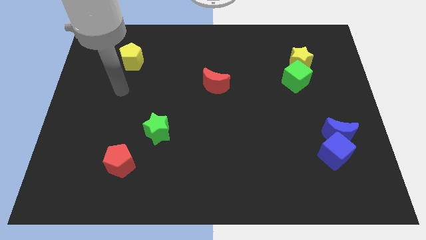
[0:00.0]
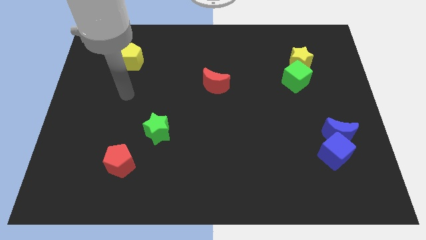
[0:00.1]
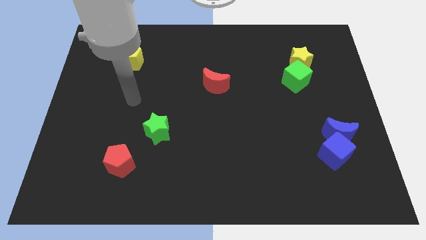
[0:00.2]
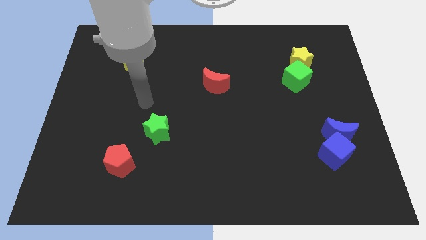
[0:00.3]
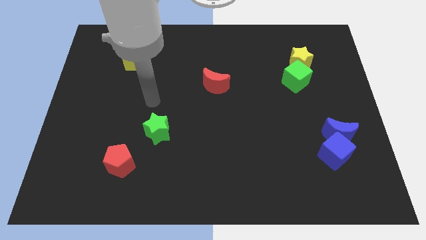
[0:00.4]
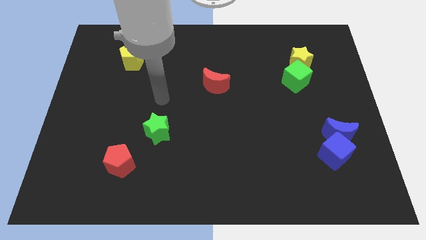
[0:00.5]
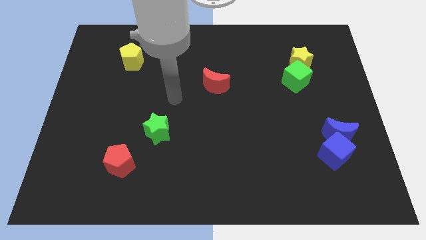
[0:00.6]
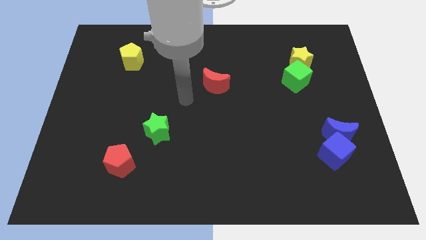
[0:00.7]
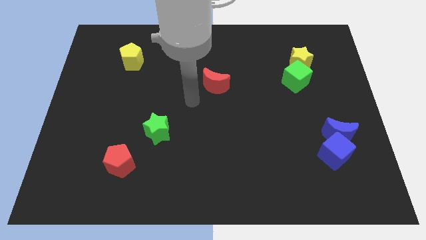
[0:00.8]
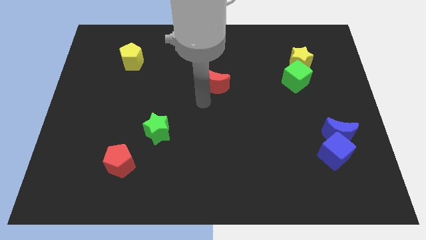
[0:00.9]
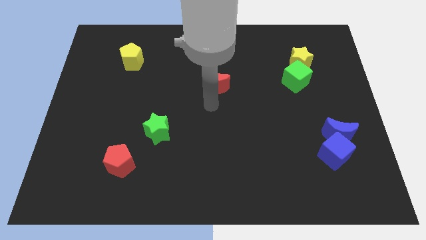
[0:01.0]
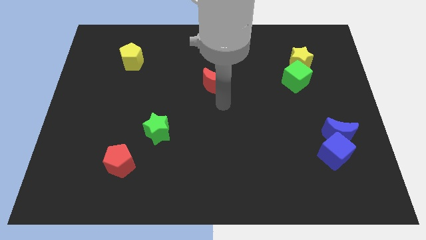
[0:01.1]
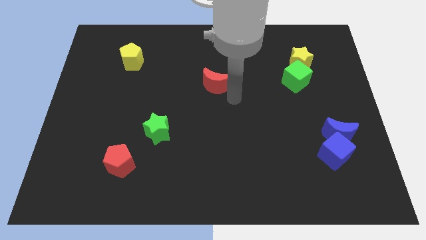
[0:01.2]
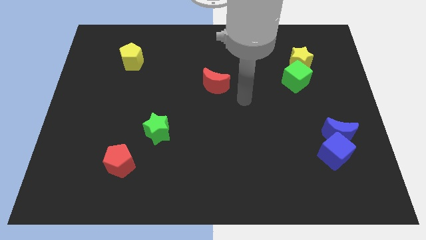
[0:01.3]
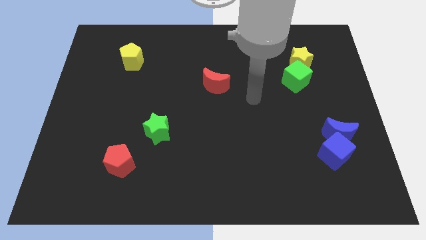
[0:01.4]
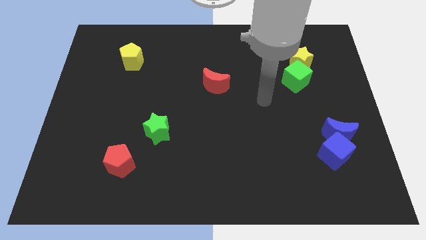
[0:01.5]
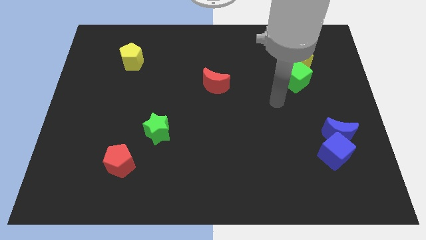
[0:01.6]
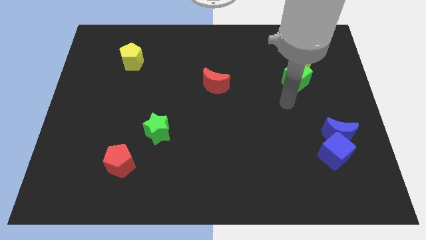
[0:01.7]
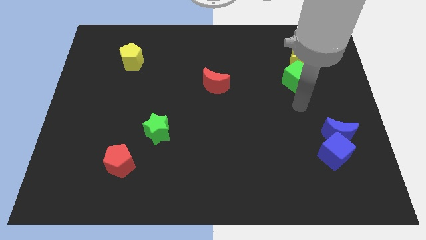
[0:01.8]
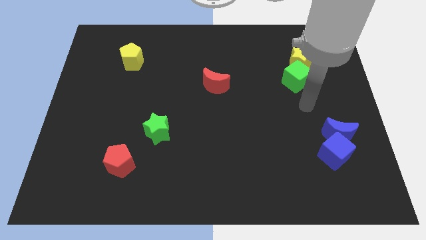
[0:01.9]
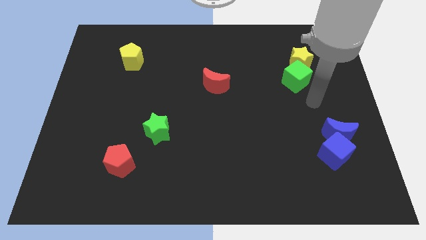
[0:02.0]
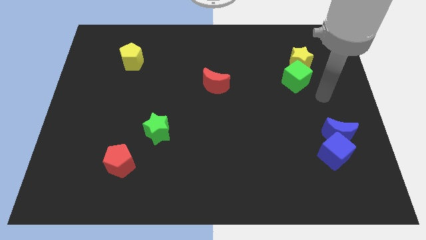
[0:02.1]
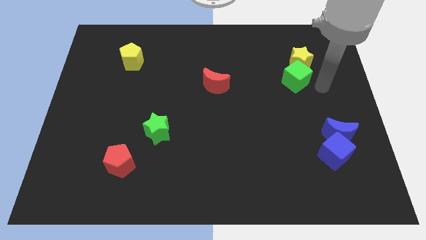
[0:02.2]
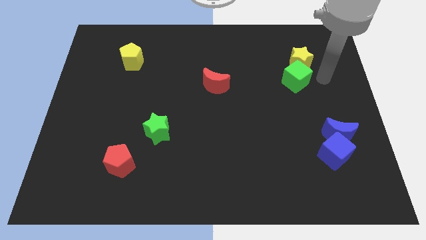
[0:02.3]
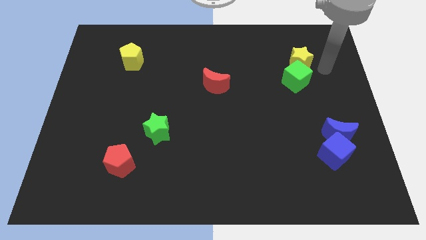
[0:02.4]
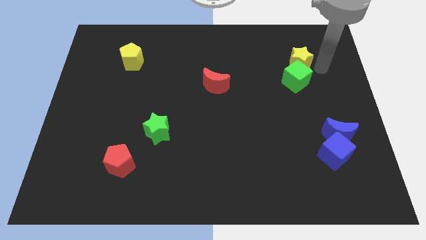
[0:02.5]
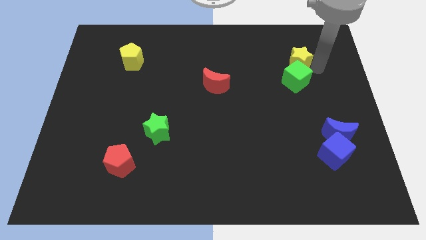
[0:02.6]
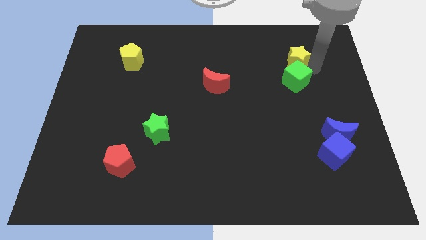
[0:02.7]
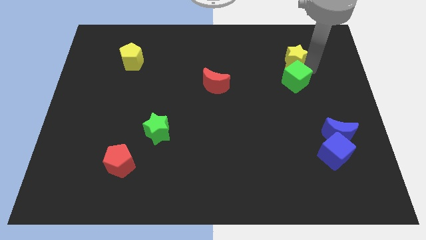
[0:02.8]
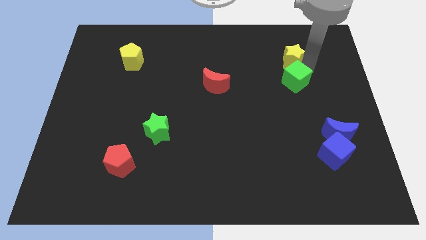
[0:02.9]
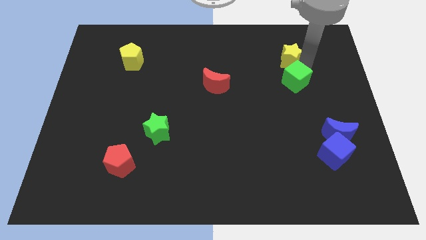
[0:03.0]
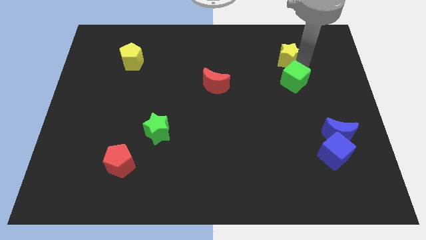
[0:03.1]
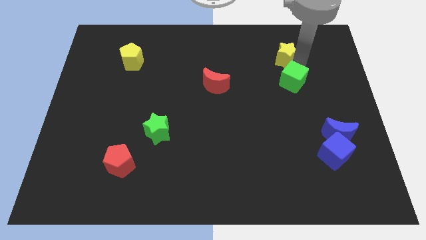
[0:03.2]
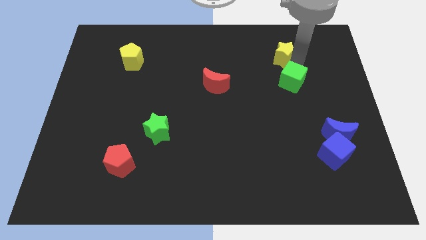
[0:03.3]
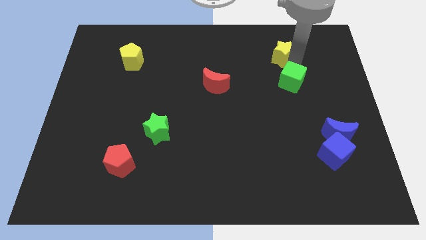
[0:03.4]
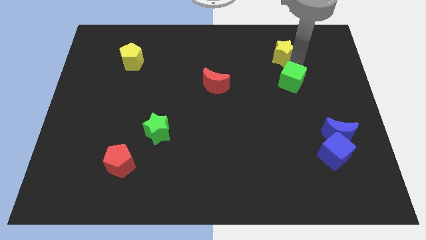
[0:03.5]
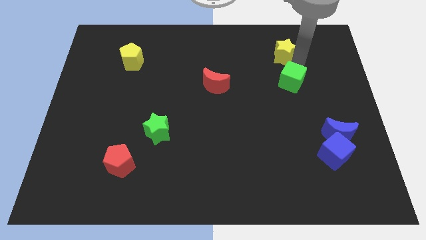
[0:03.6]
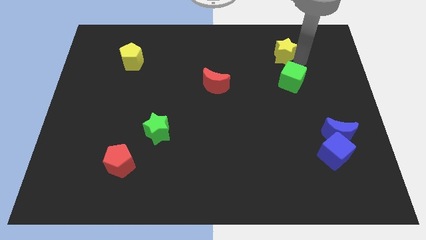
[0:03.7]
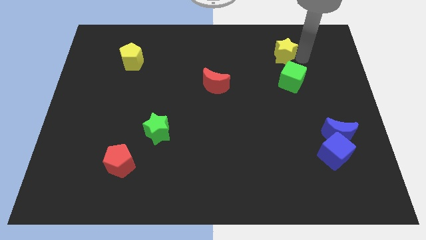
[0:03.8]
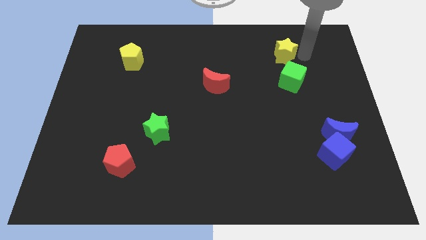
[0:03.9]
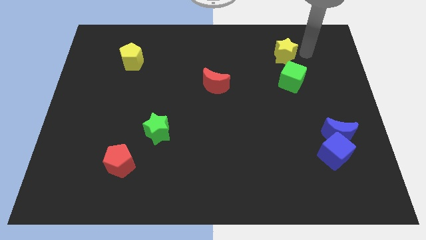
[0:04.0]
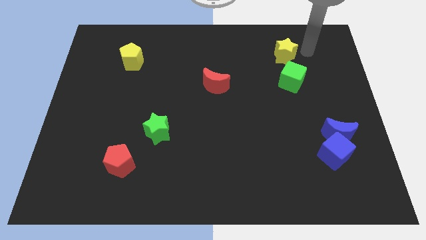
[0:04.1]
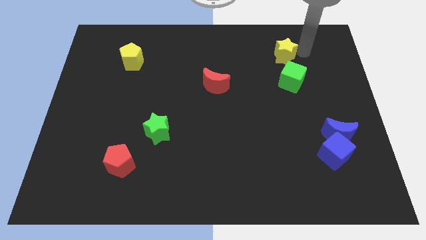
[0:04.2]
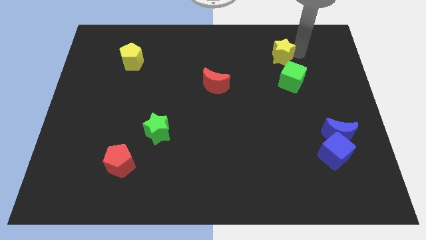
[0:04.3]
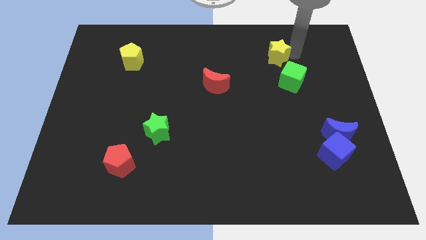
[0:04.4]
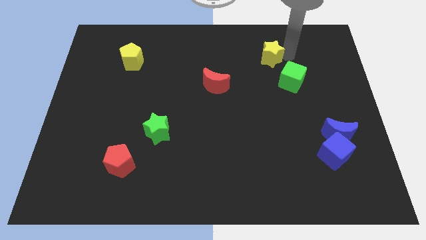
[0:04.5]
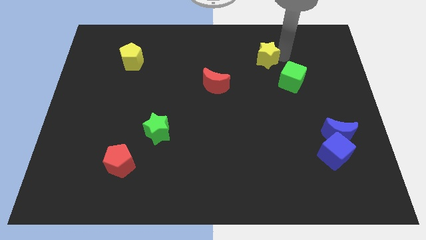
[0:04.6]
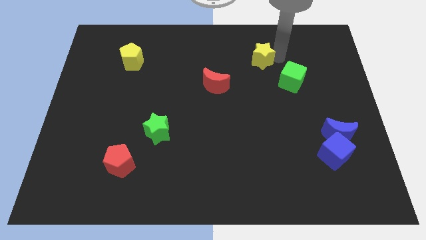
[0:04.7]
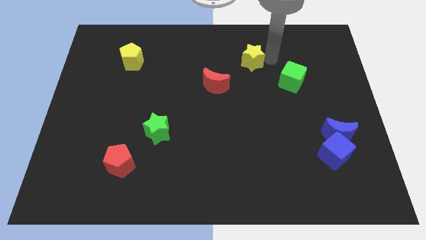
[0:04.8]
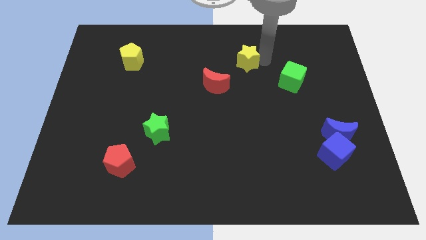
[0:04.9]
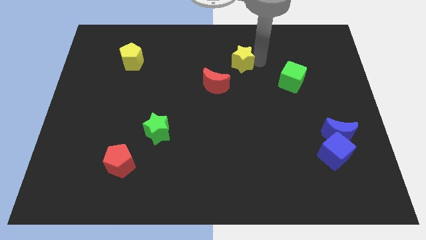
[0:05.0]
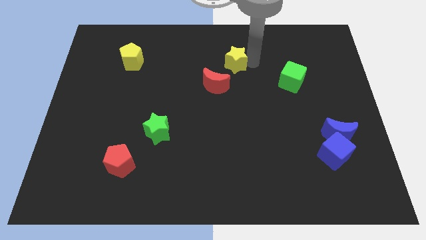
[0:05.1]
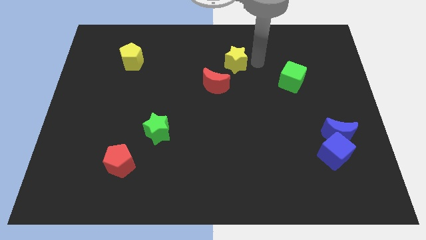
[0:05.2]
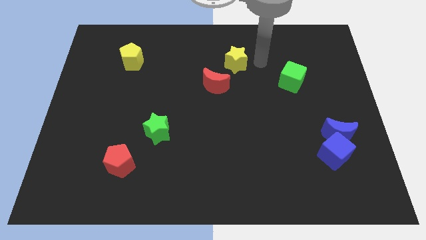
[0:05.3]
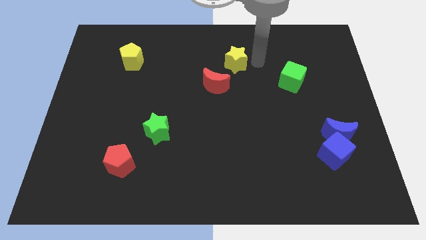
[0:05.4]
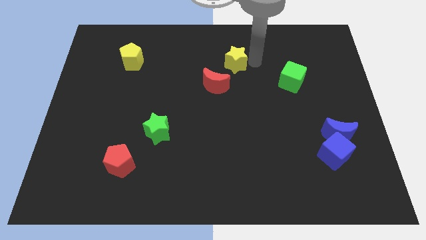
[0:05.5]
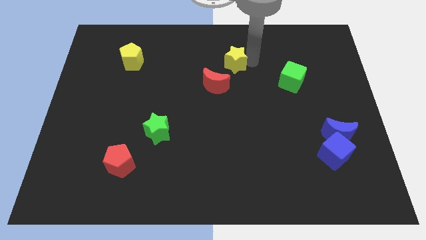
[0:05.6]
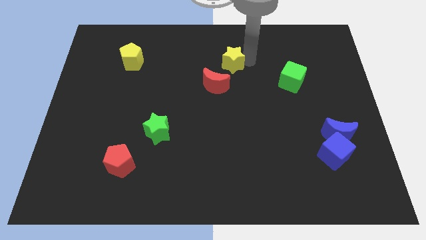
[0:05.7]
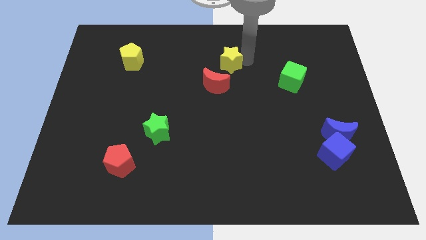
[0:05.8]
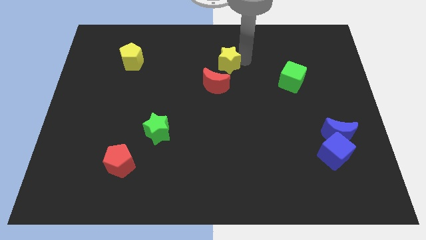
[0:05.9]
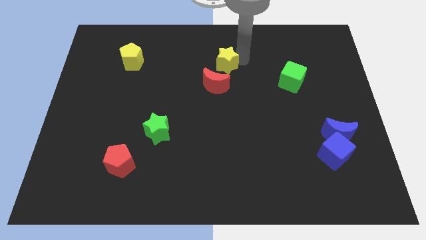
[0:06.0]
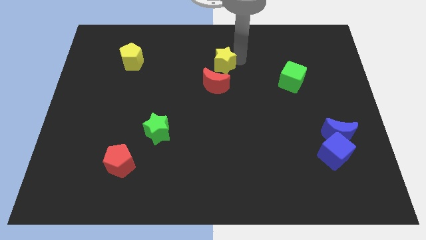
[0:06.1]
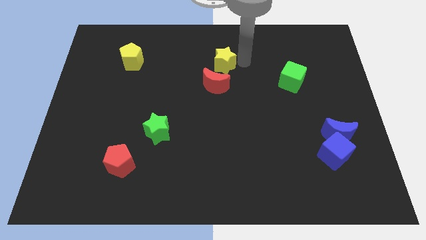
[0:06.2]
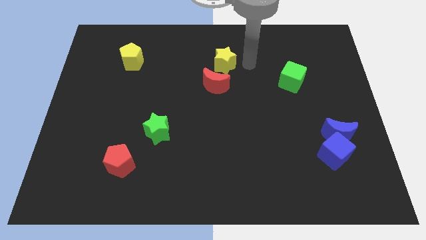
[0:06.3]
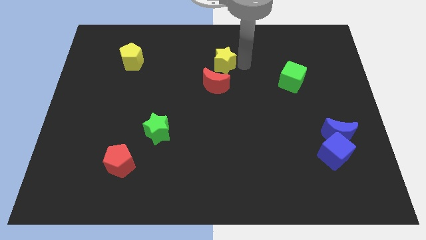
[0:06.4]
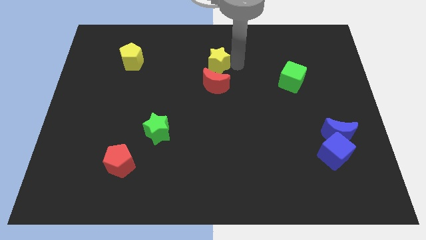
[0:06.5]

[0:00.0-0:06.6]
slide the yellow star to the left

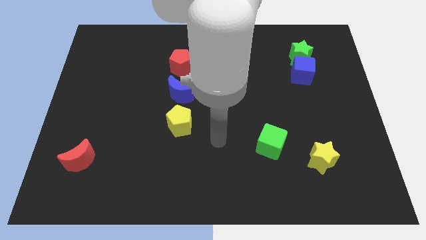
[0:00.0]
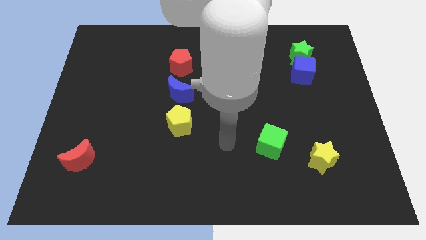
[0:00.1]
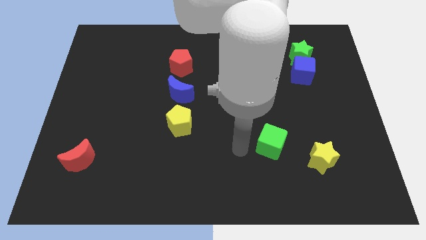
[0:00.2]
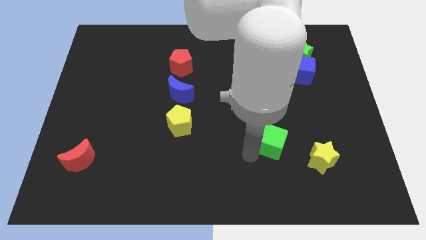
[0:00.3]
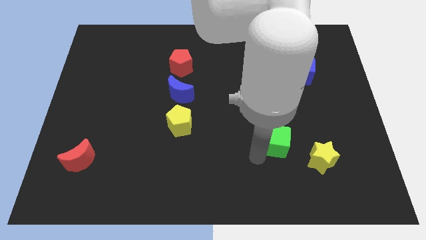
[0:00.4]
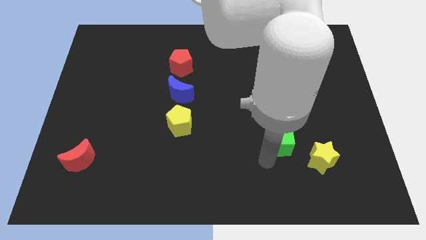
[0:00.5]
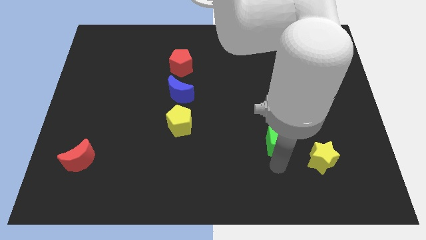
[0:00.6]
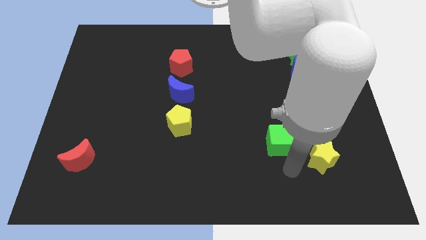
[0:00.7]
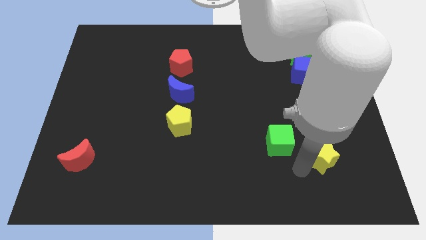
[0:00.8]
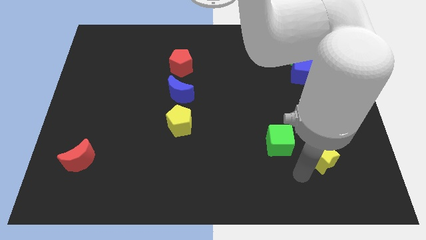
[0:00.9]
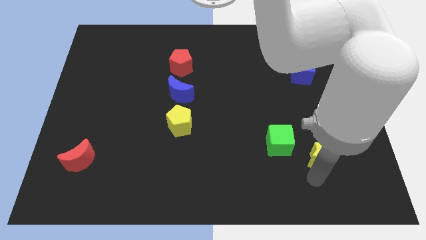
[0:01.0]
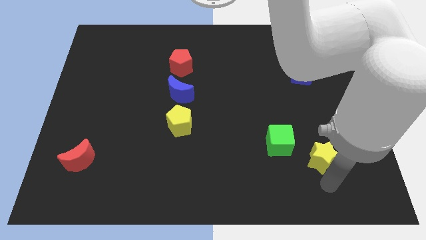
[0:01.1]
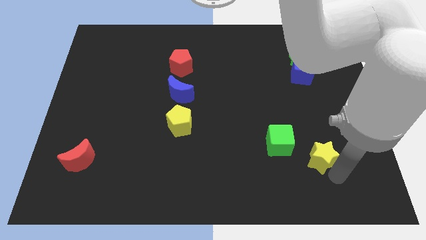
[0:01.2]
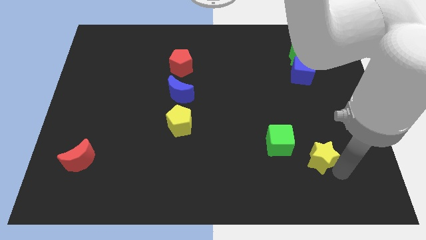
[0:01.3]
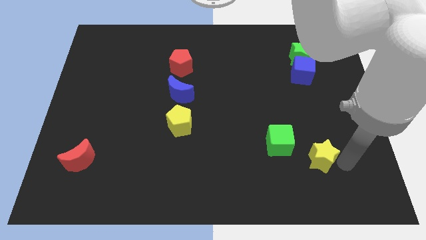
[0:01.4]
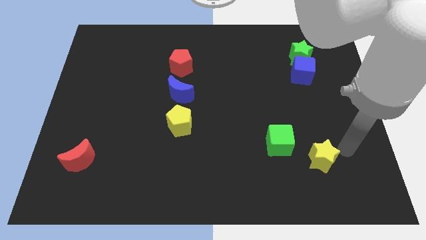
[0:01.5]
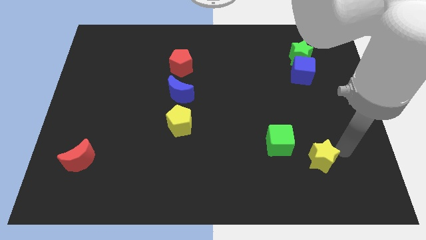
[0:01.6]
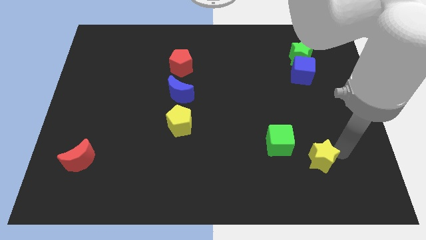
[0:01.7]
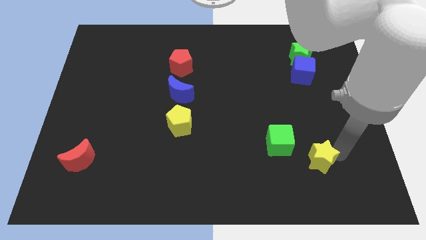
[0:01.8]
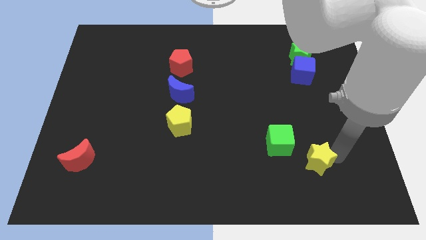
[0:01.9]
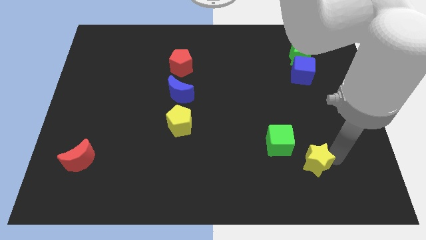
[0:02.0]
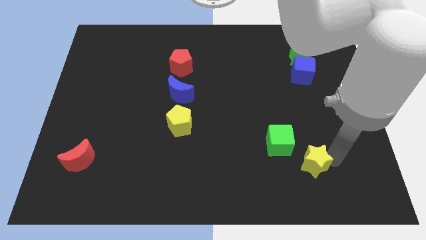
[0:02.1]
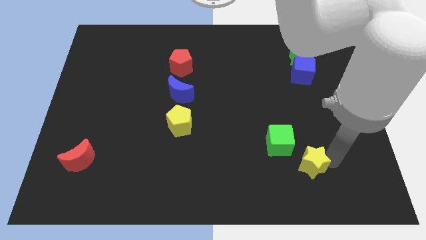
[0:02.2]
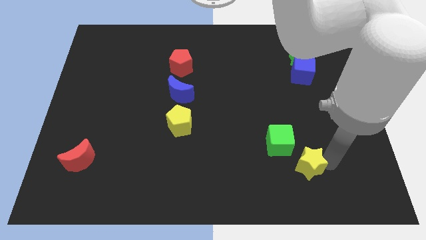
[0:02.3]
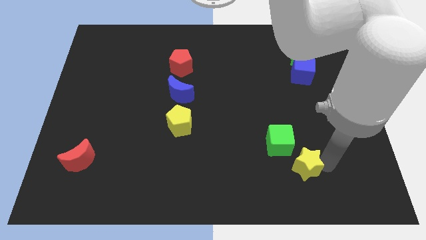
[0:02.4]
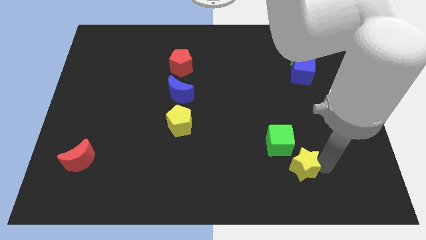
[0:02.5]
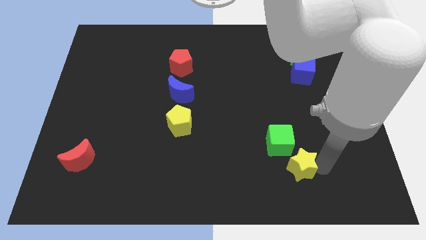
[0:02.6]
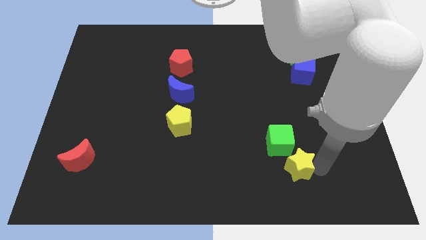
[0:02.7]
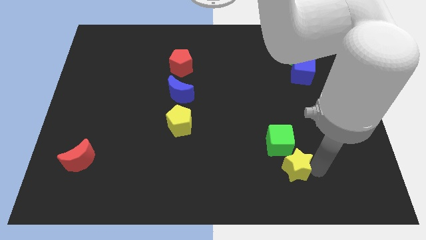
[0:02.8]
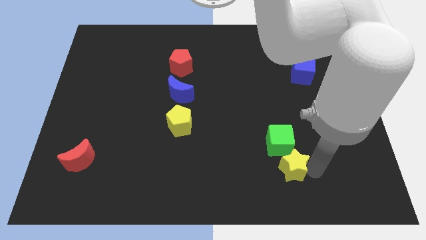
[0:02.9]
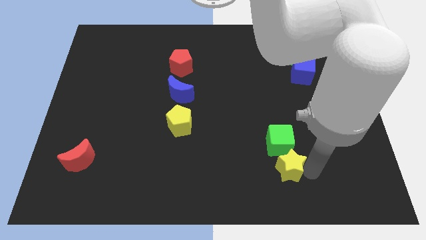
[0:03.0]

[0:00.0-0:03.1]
move the yellow star to the left somewhat
